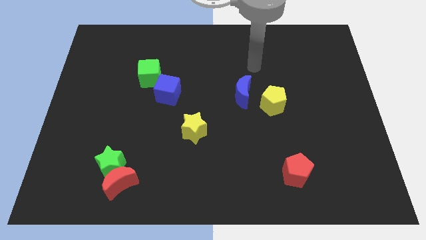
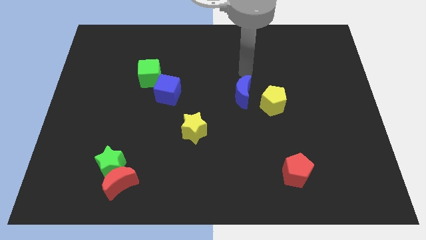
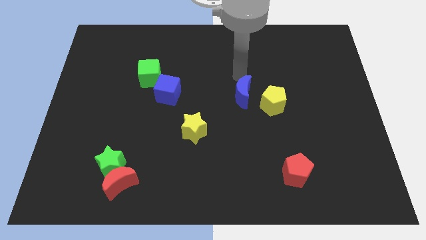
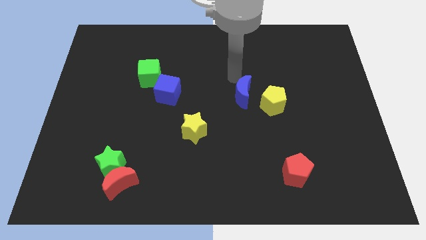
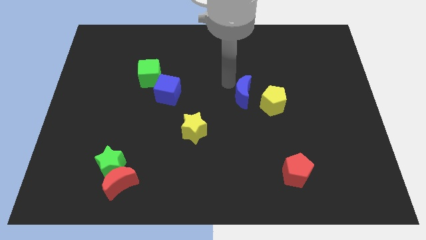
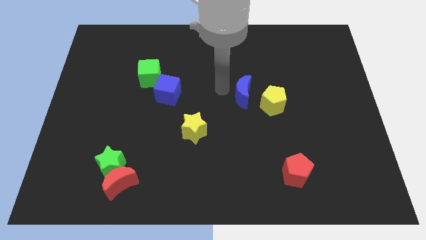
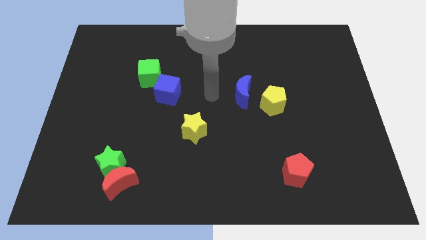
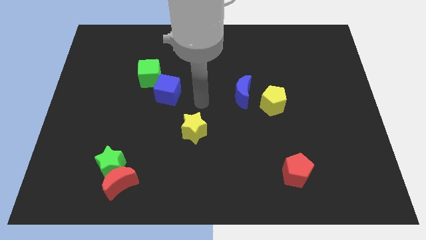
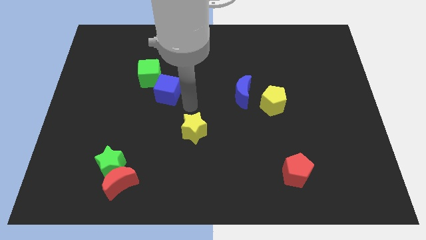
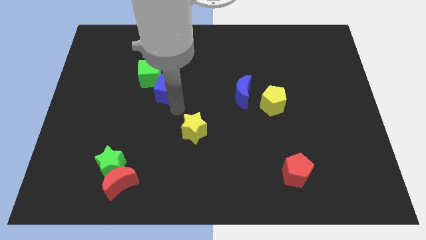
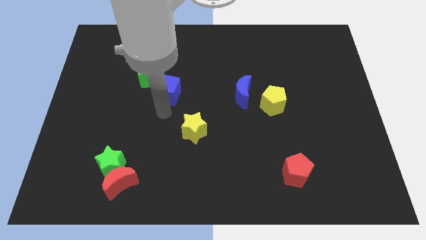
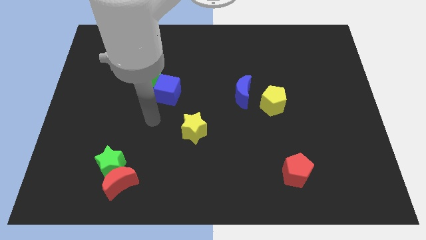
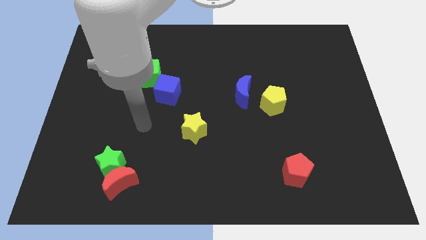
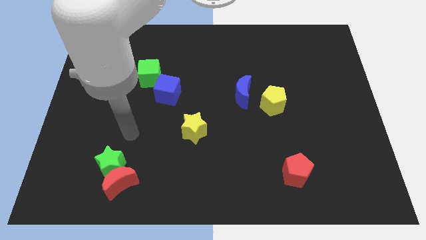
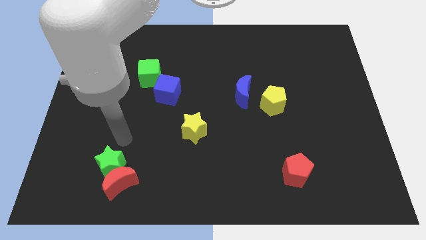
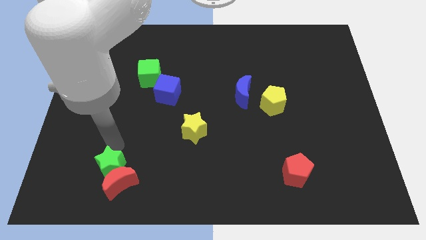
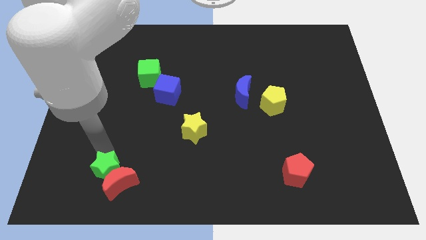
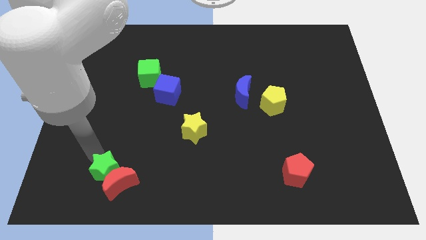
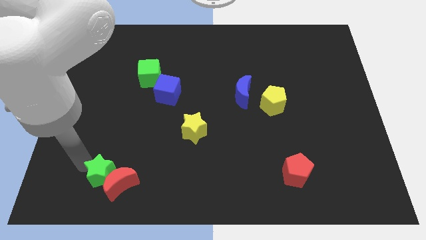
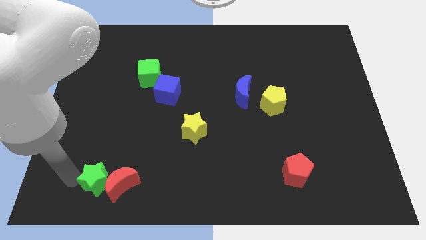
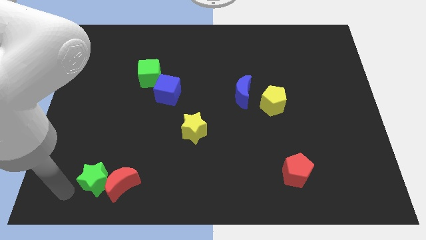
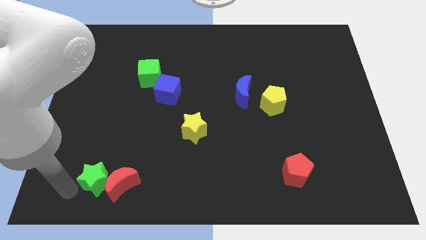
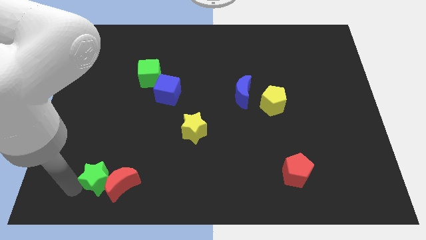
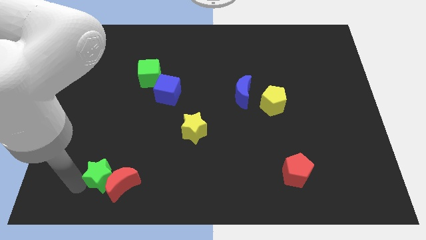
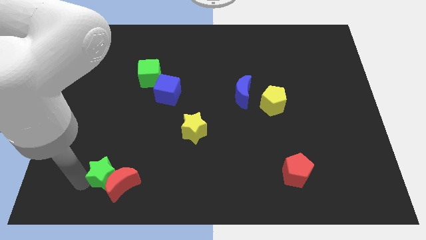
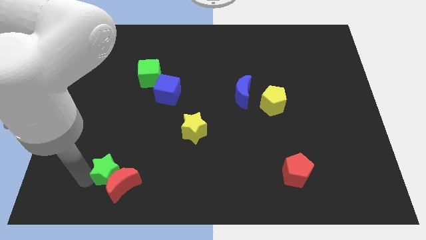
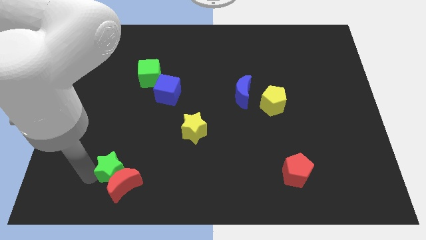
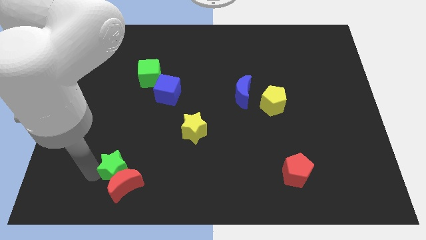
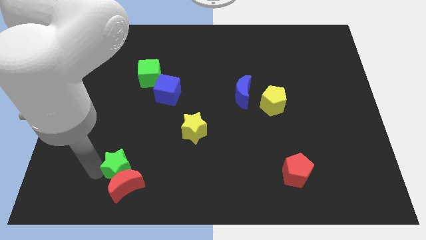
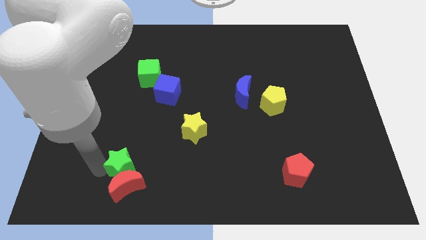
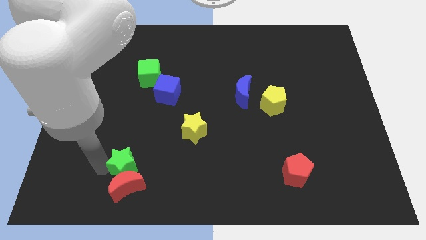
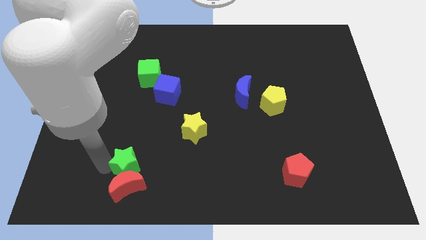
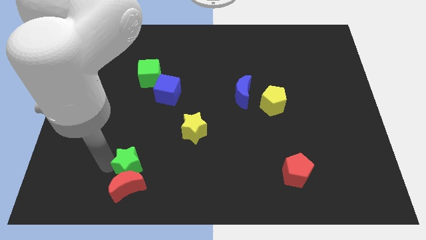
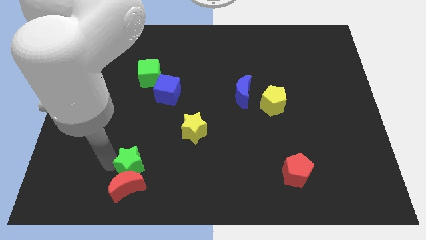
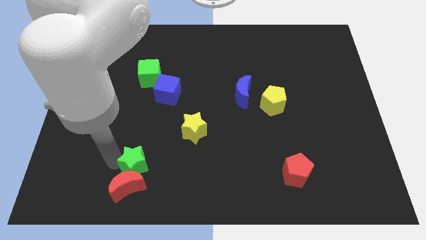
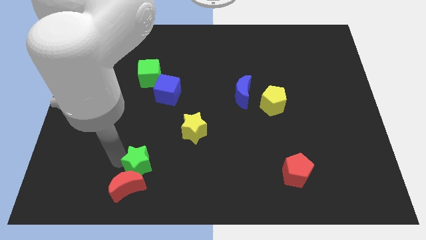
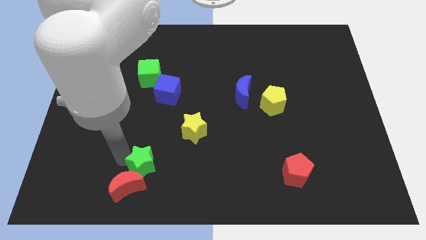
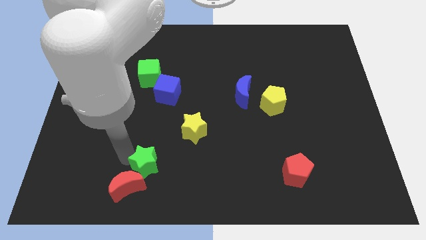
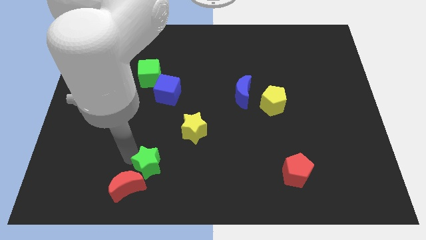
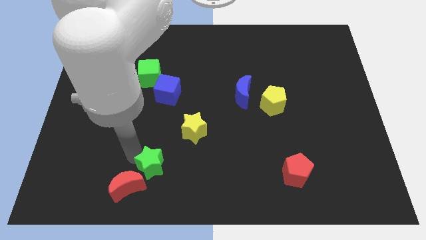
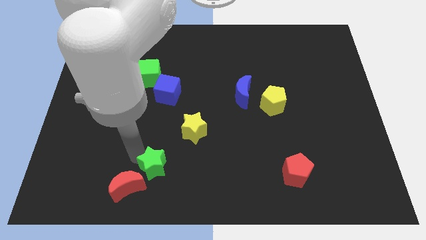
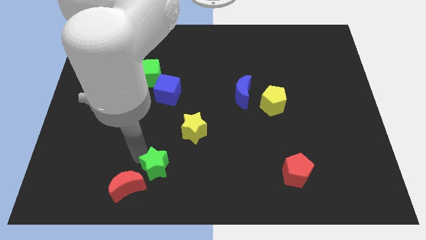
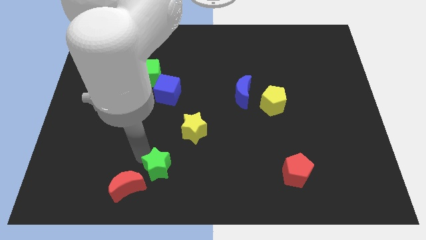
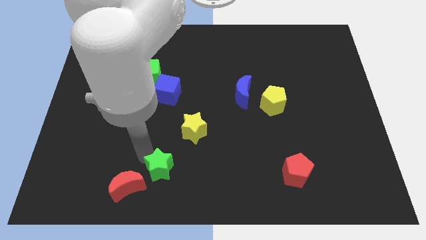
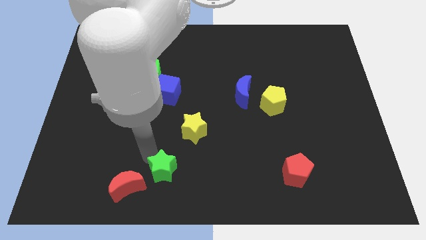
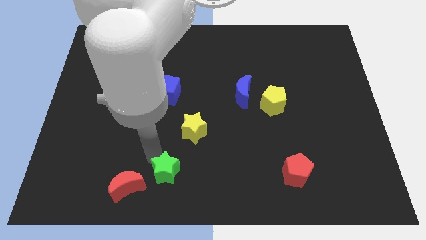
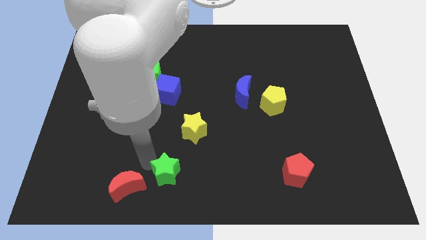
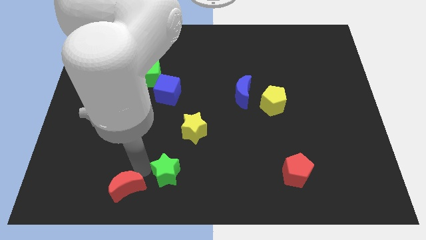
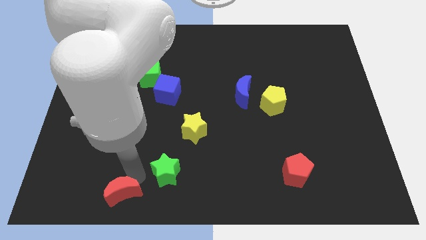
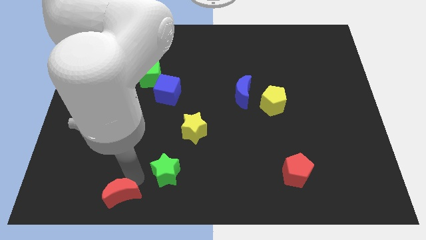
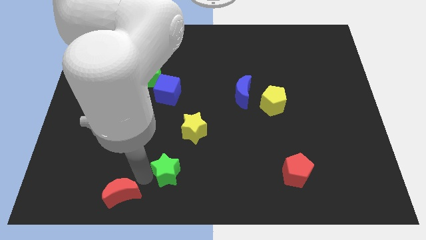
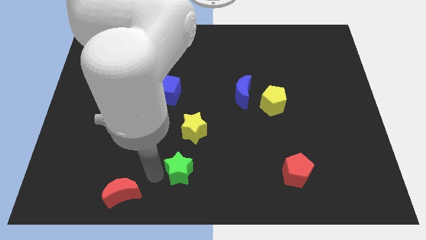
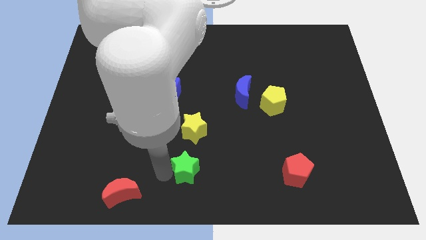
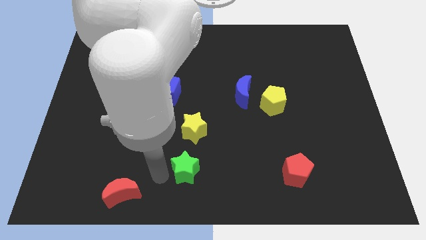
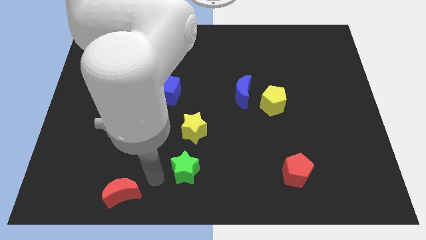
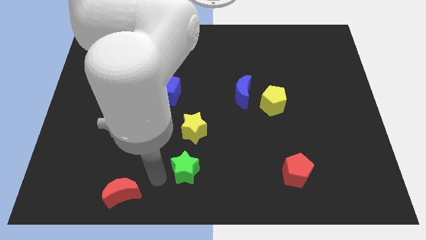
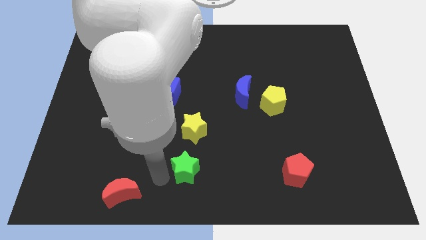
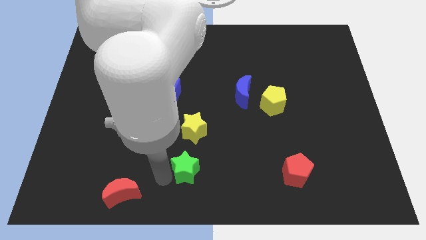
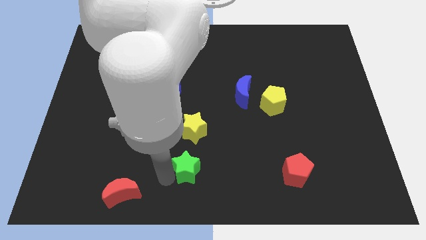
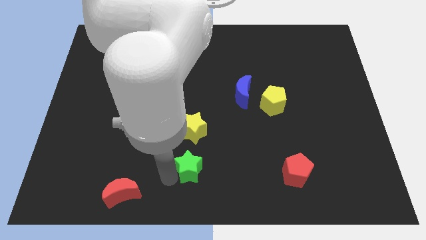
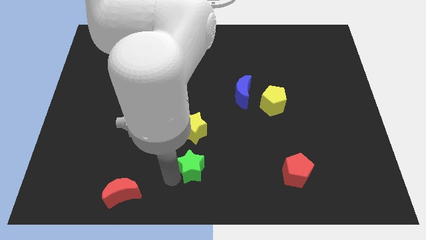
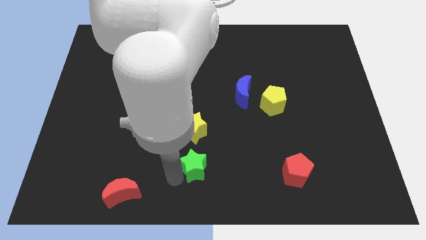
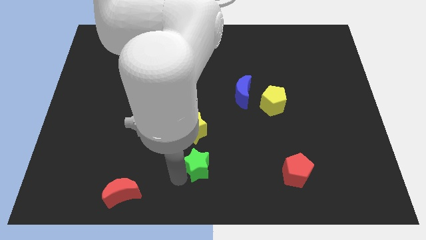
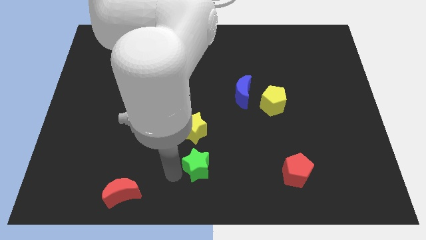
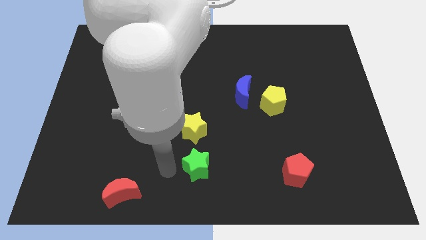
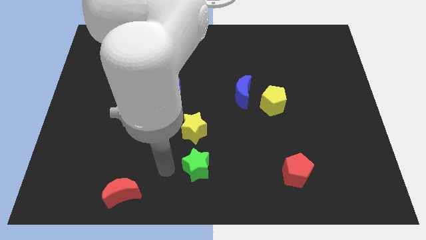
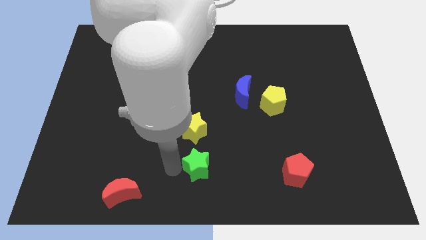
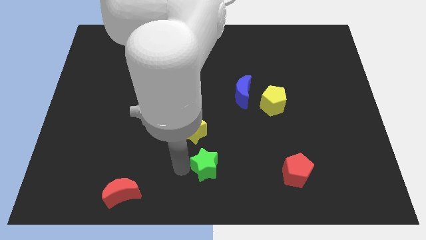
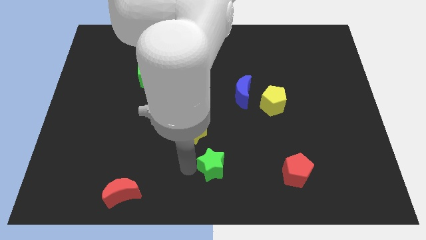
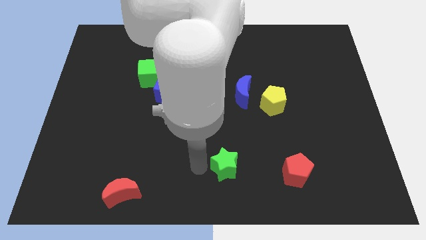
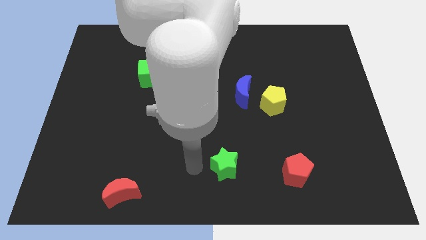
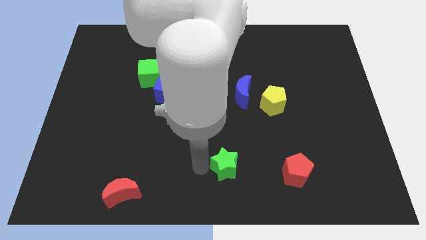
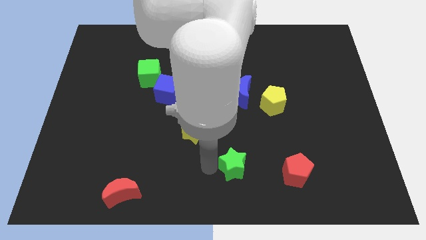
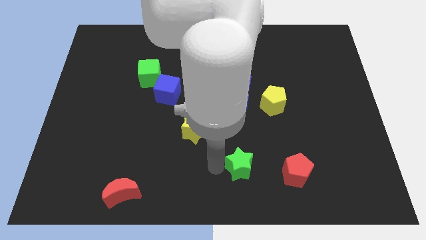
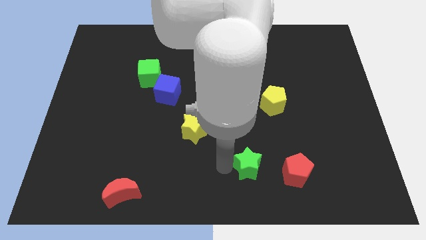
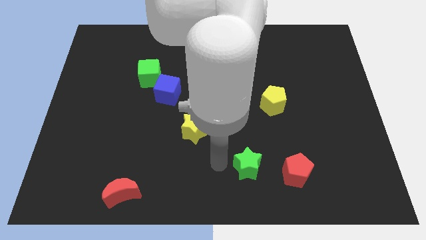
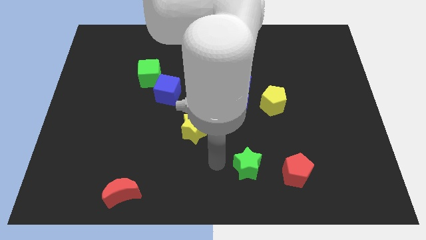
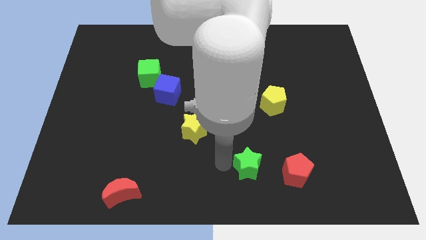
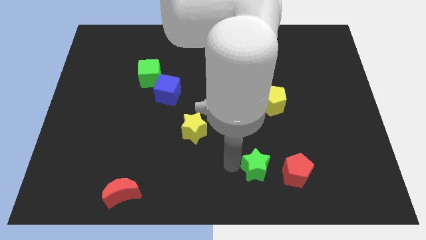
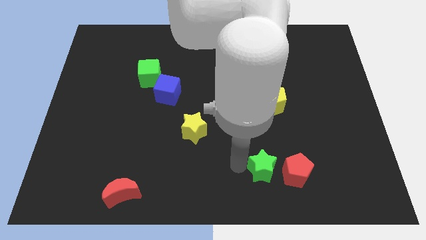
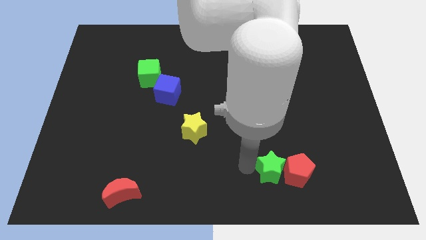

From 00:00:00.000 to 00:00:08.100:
push the green star to the red pentagon
